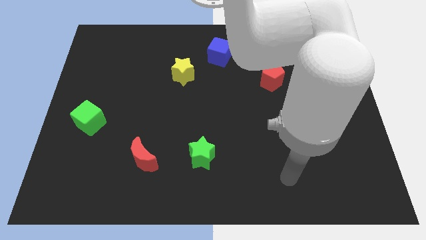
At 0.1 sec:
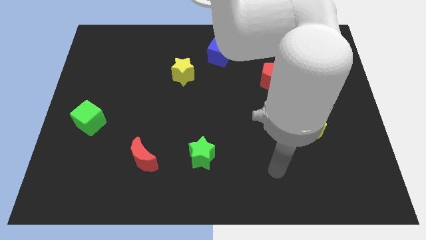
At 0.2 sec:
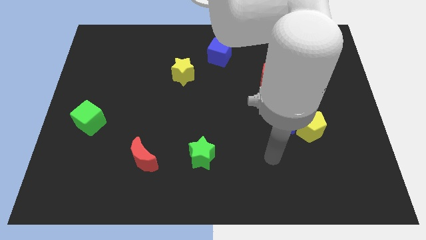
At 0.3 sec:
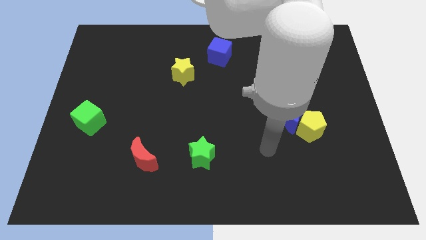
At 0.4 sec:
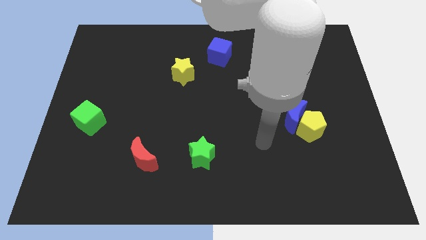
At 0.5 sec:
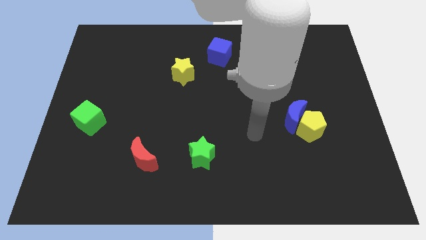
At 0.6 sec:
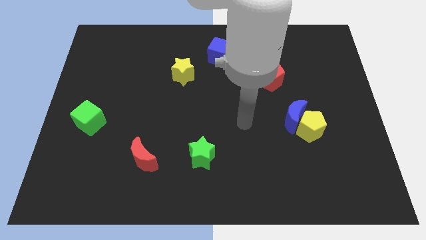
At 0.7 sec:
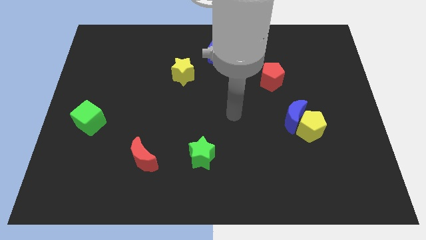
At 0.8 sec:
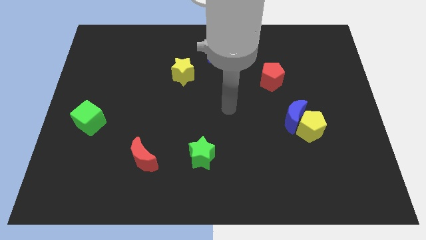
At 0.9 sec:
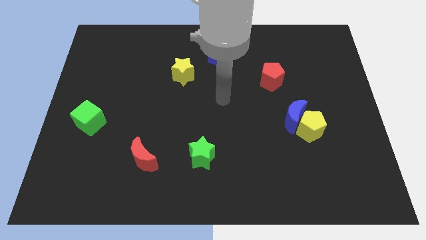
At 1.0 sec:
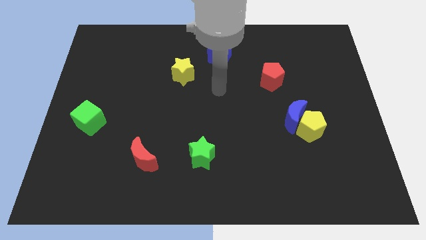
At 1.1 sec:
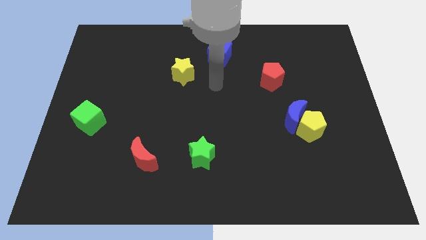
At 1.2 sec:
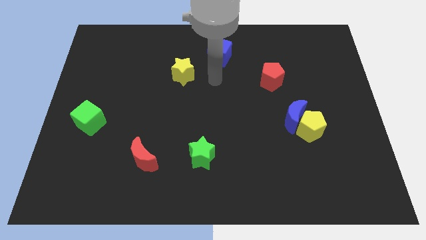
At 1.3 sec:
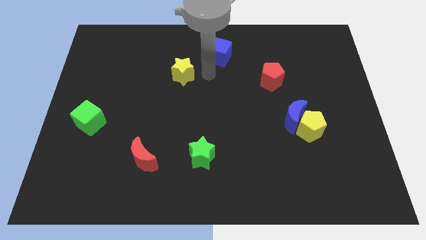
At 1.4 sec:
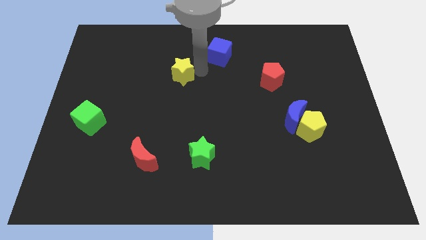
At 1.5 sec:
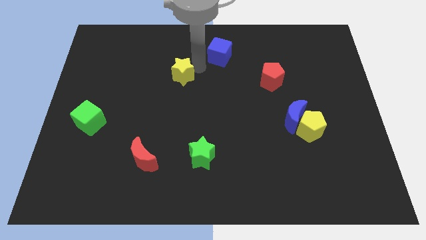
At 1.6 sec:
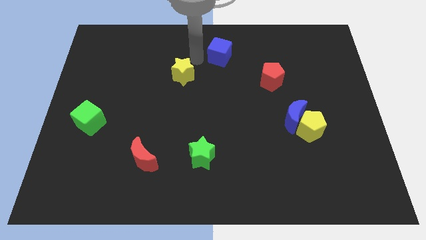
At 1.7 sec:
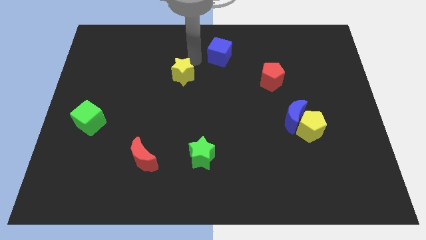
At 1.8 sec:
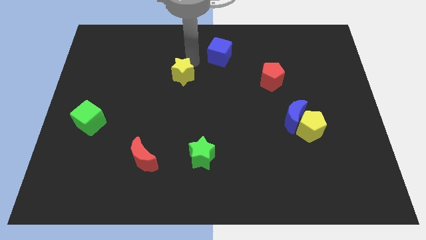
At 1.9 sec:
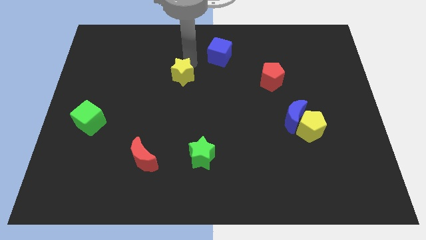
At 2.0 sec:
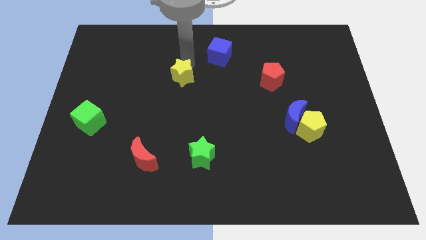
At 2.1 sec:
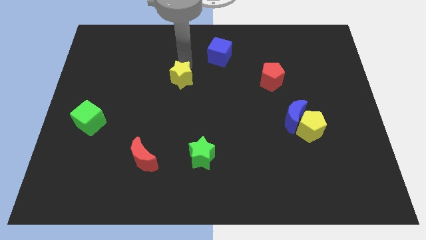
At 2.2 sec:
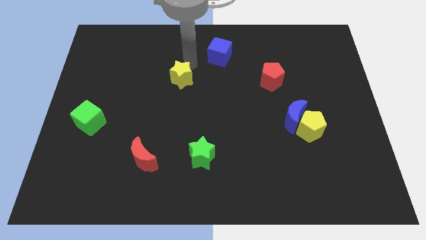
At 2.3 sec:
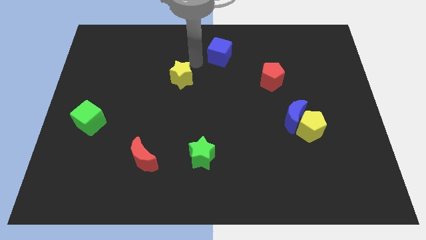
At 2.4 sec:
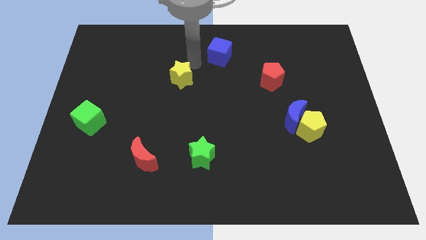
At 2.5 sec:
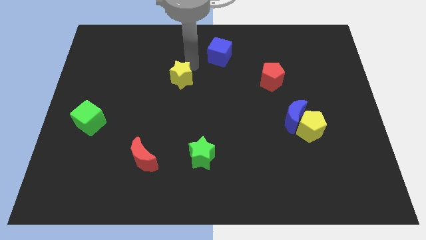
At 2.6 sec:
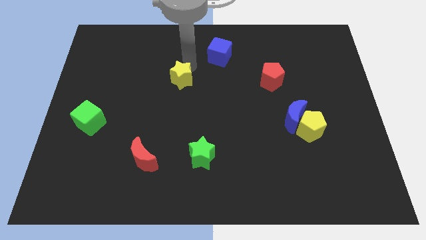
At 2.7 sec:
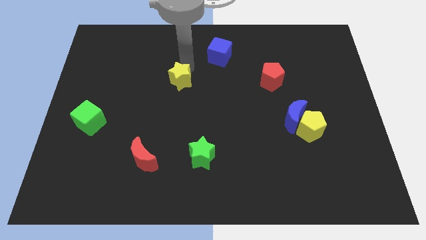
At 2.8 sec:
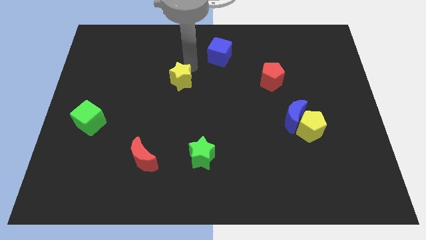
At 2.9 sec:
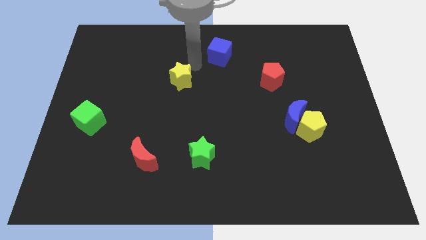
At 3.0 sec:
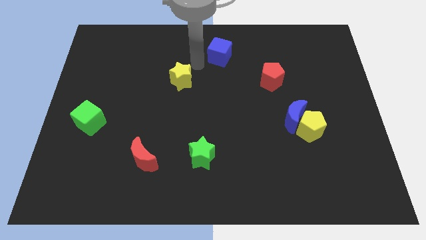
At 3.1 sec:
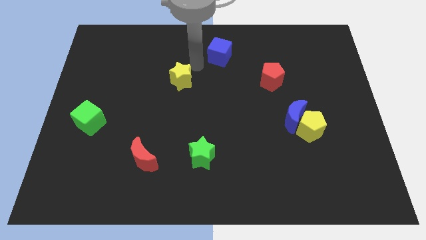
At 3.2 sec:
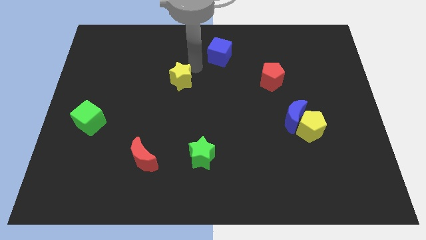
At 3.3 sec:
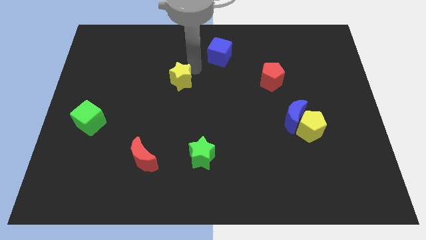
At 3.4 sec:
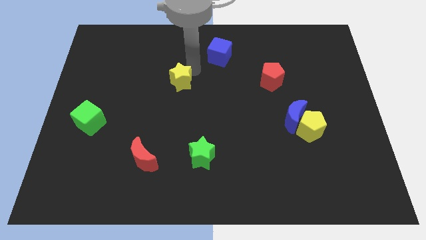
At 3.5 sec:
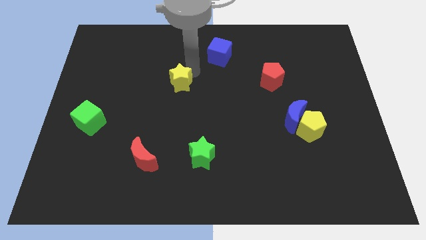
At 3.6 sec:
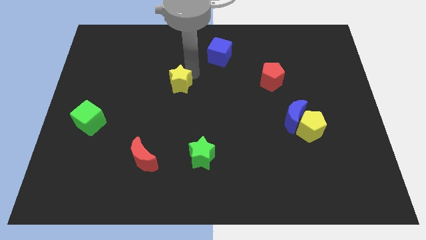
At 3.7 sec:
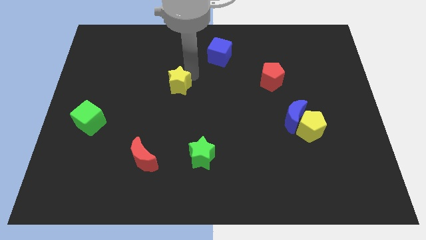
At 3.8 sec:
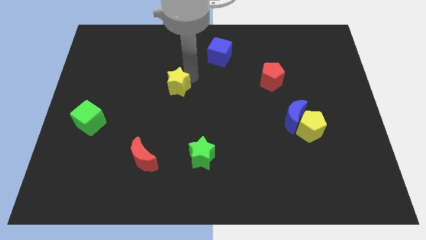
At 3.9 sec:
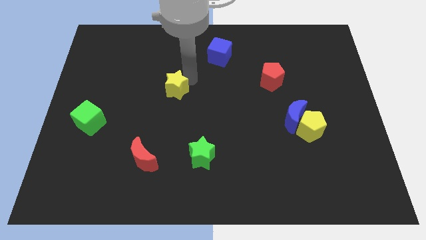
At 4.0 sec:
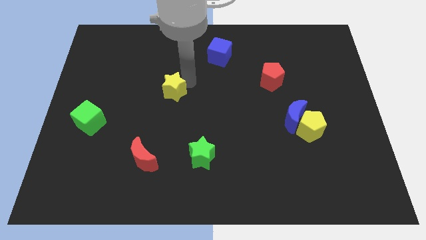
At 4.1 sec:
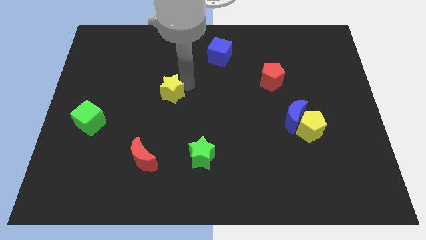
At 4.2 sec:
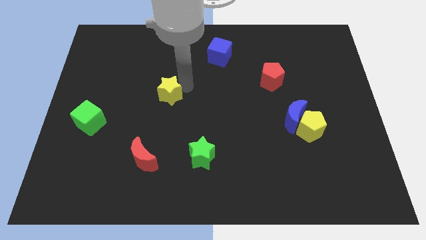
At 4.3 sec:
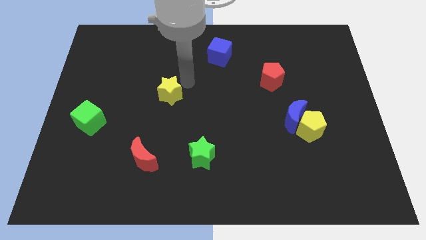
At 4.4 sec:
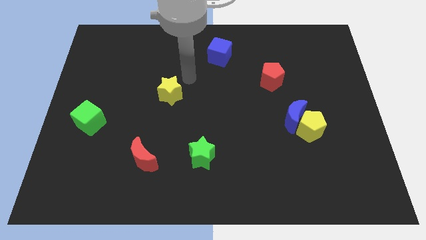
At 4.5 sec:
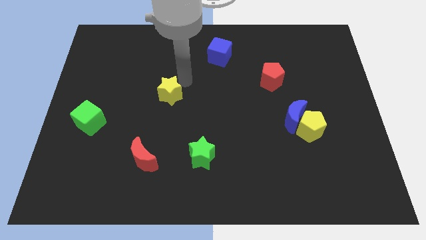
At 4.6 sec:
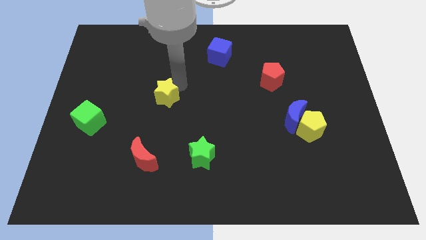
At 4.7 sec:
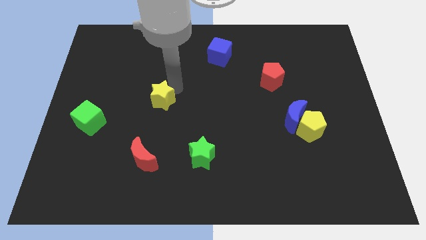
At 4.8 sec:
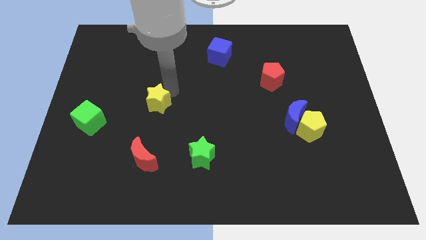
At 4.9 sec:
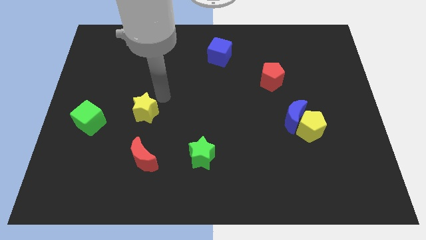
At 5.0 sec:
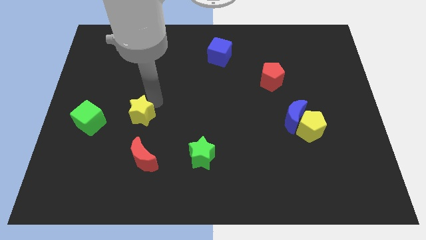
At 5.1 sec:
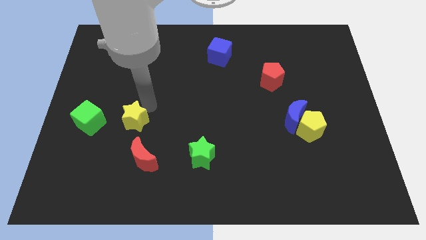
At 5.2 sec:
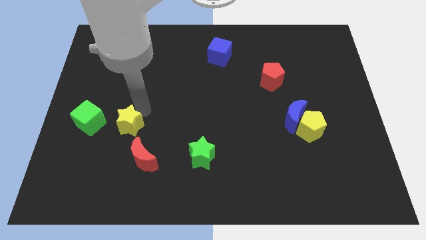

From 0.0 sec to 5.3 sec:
push the yellow star diagonally up and to the left of the red moon

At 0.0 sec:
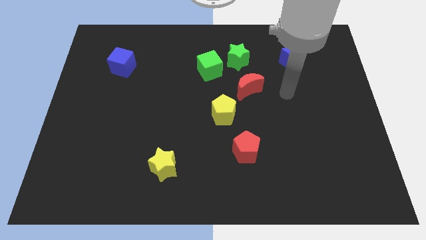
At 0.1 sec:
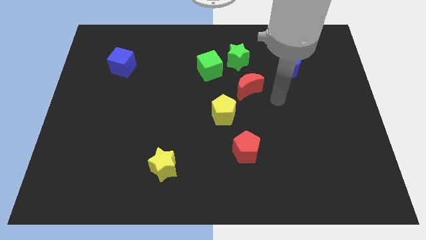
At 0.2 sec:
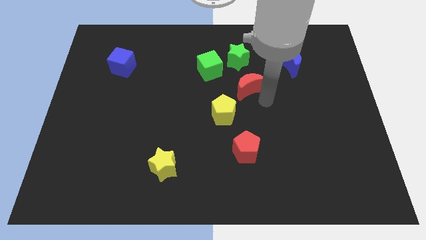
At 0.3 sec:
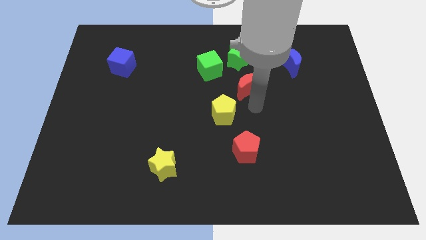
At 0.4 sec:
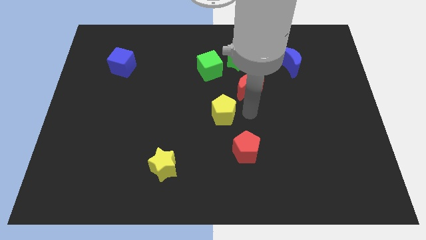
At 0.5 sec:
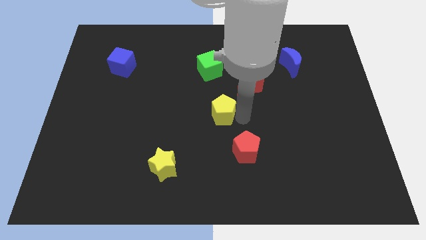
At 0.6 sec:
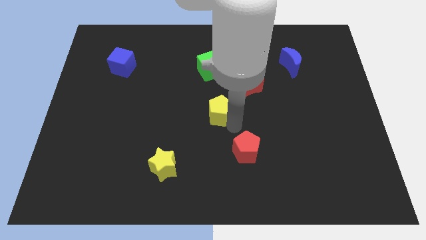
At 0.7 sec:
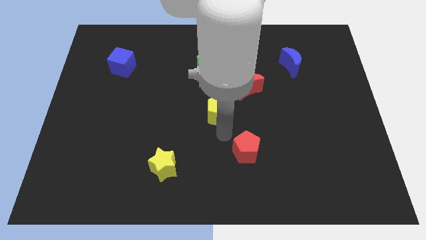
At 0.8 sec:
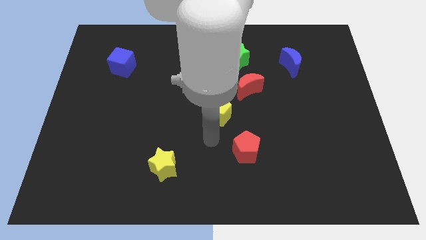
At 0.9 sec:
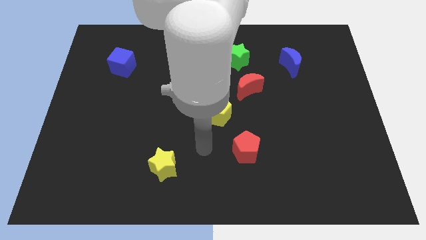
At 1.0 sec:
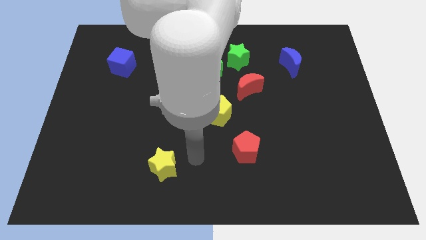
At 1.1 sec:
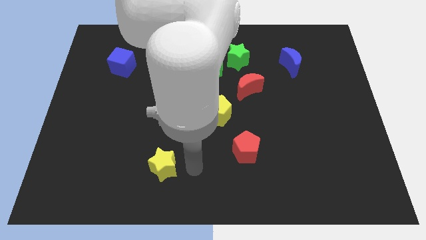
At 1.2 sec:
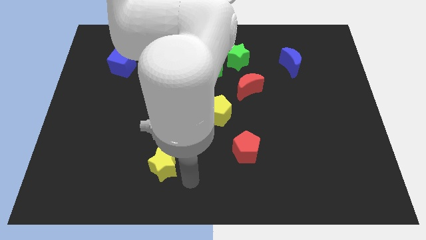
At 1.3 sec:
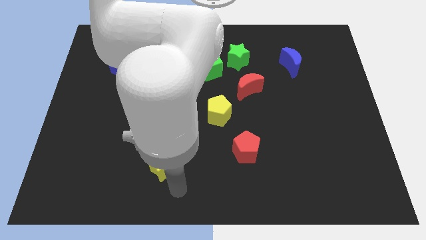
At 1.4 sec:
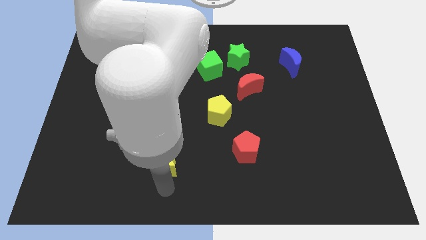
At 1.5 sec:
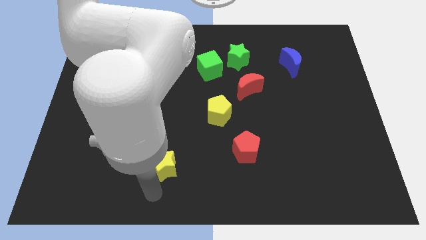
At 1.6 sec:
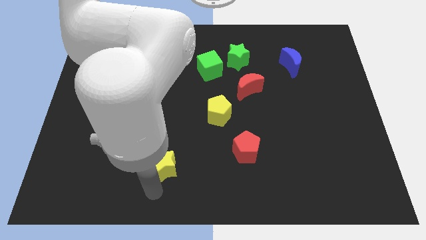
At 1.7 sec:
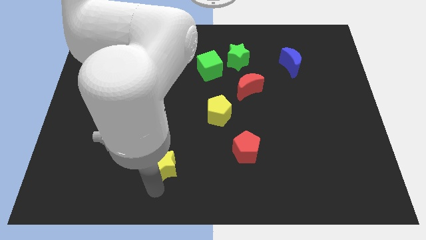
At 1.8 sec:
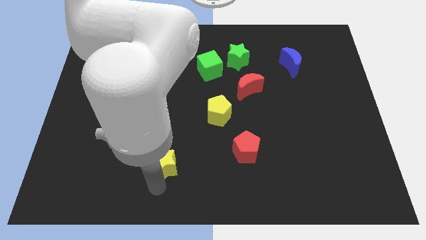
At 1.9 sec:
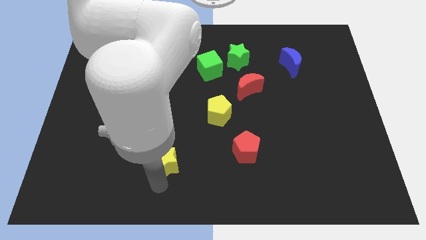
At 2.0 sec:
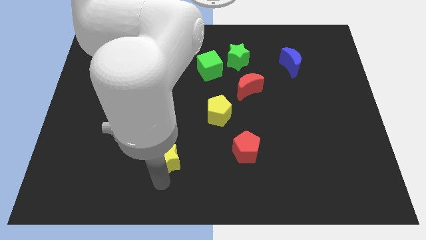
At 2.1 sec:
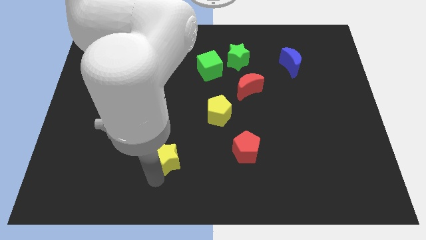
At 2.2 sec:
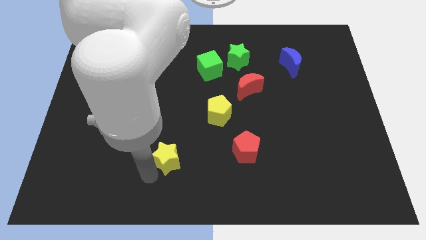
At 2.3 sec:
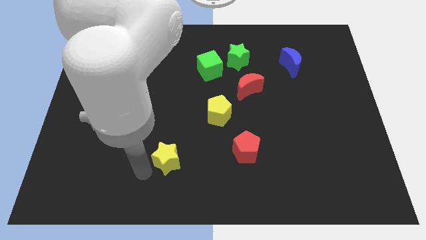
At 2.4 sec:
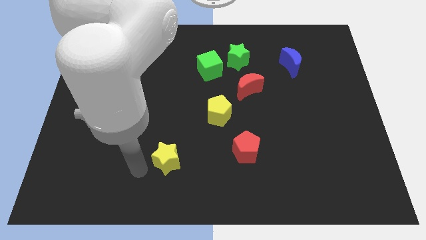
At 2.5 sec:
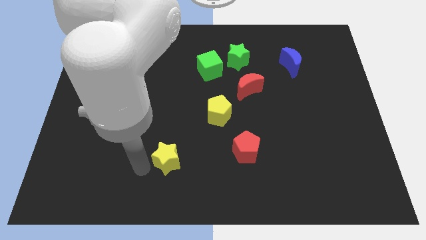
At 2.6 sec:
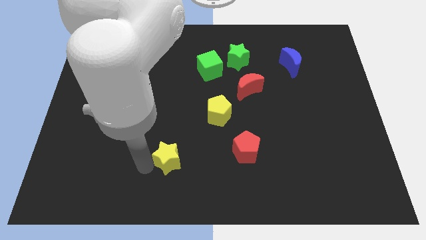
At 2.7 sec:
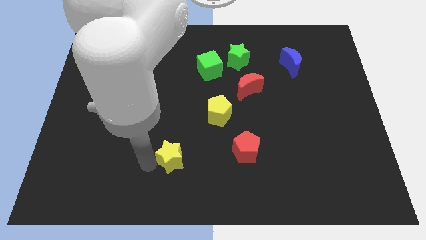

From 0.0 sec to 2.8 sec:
move the yellow star left of the red pentagon
